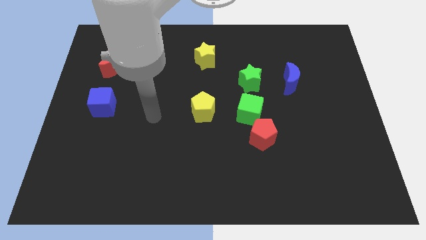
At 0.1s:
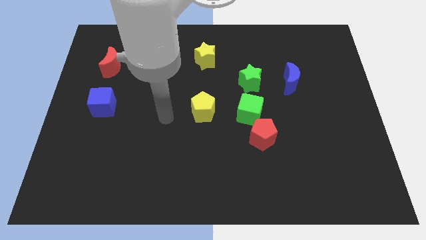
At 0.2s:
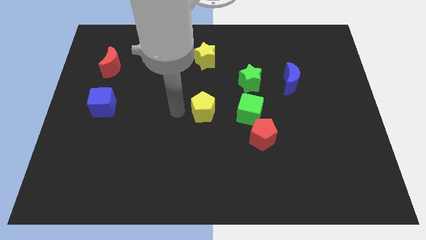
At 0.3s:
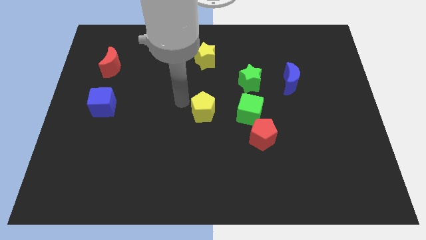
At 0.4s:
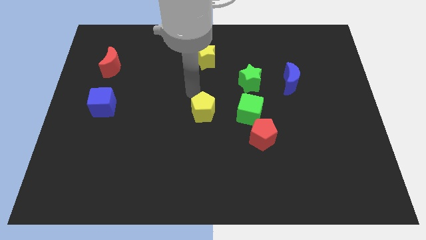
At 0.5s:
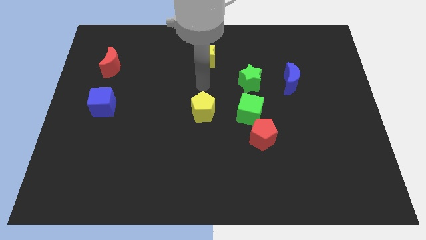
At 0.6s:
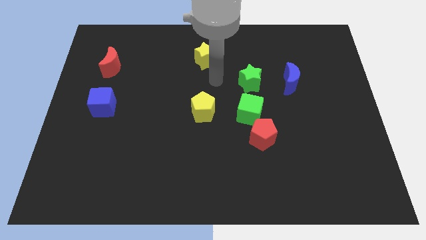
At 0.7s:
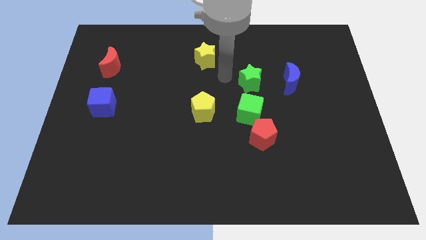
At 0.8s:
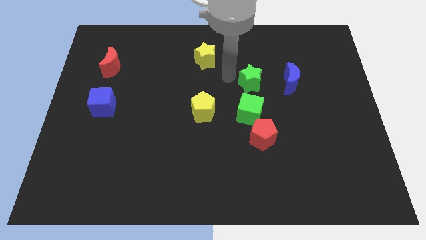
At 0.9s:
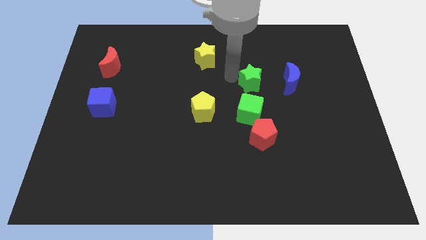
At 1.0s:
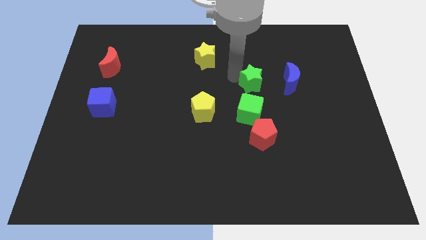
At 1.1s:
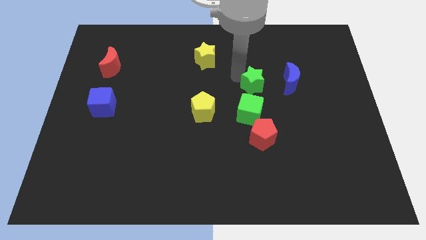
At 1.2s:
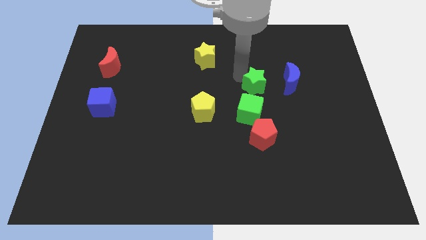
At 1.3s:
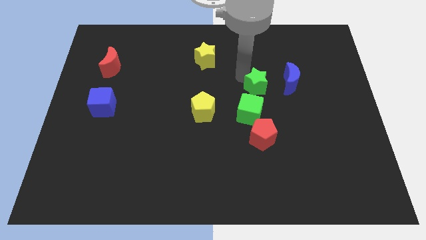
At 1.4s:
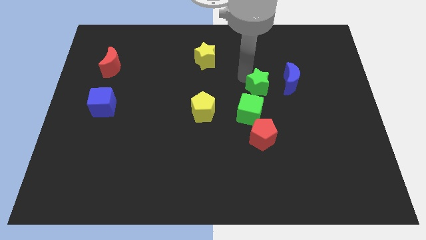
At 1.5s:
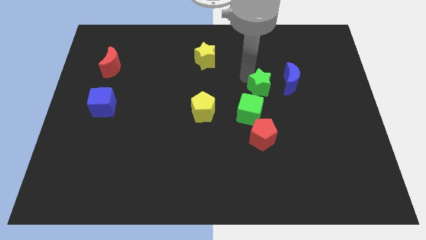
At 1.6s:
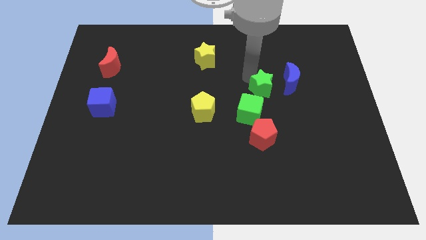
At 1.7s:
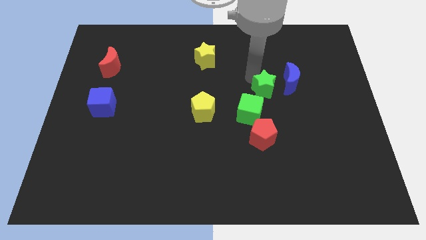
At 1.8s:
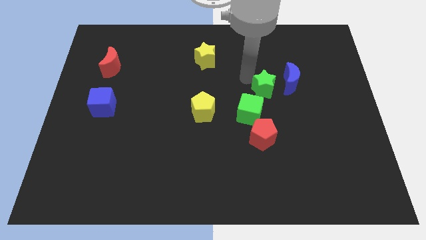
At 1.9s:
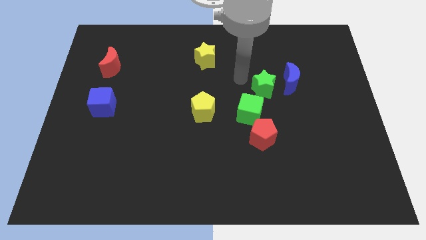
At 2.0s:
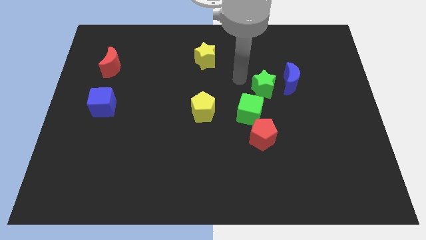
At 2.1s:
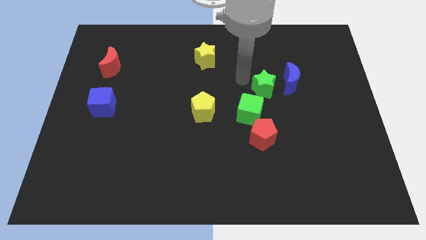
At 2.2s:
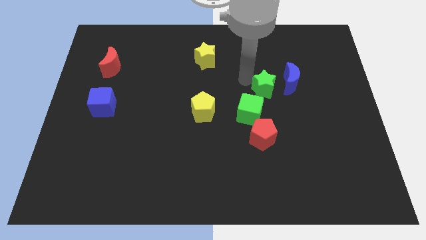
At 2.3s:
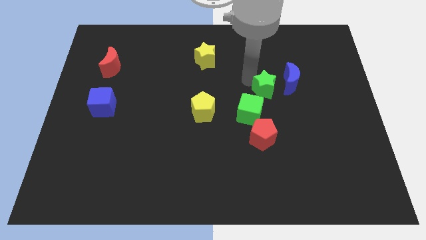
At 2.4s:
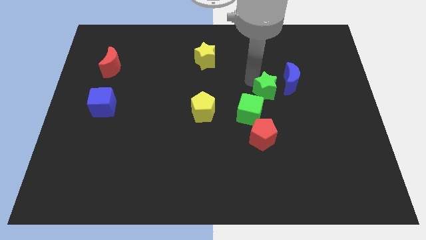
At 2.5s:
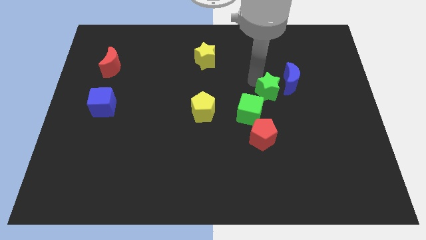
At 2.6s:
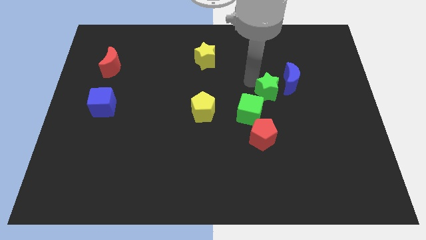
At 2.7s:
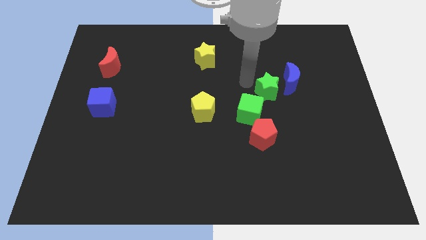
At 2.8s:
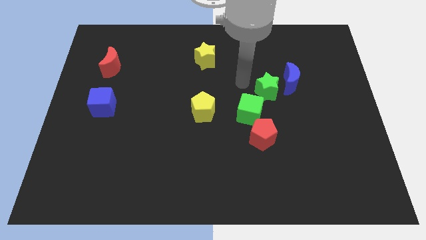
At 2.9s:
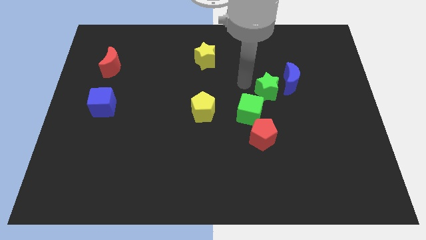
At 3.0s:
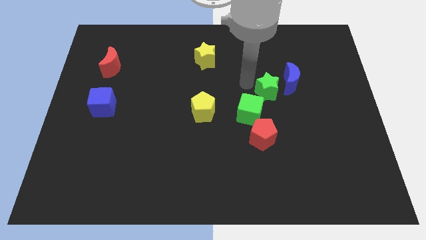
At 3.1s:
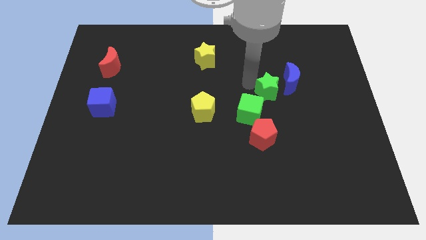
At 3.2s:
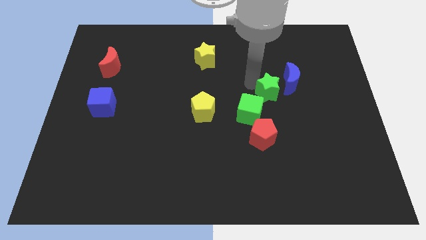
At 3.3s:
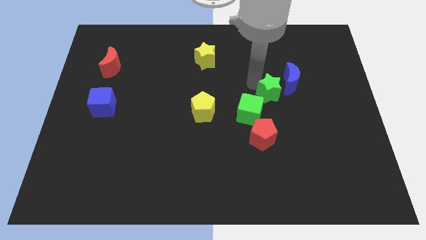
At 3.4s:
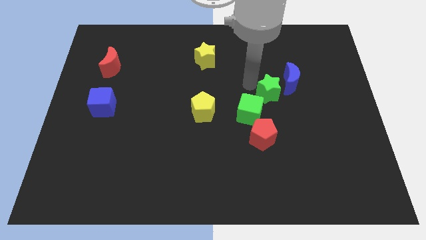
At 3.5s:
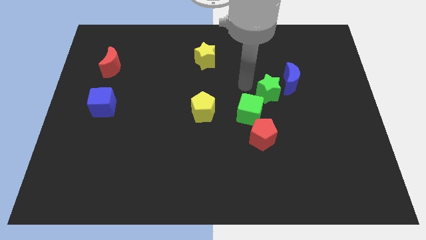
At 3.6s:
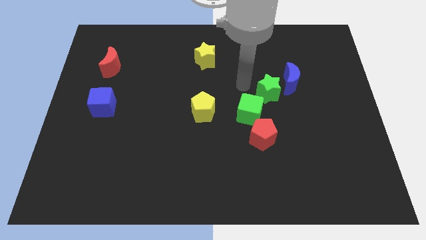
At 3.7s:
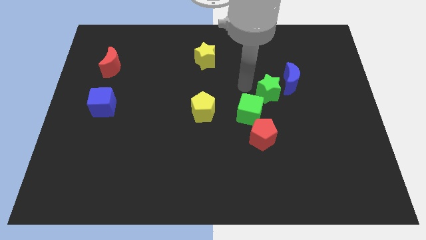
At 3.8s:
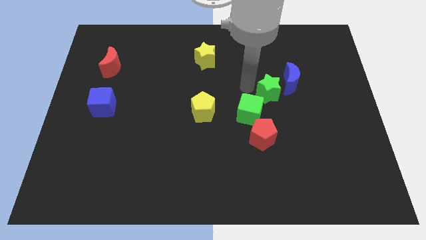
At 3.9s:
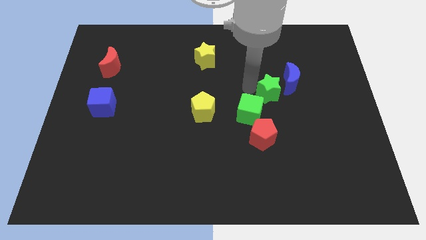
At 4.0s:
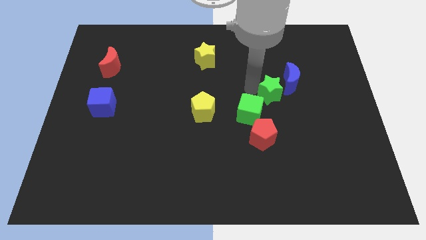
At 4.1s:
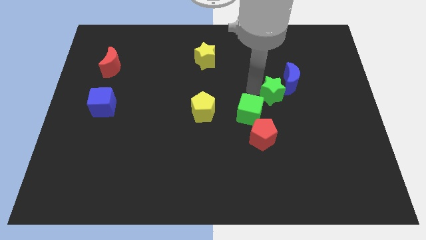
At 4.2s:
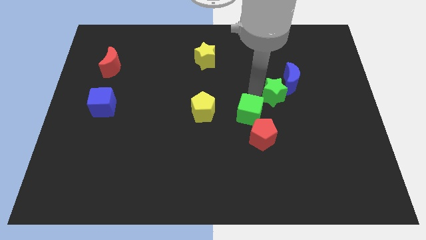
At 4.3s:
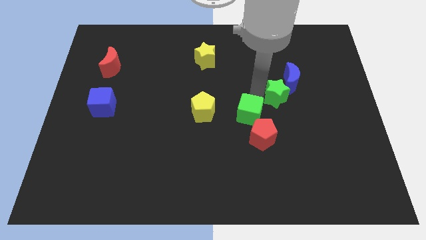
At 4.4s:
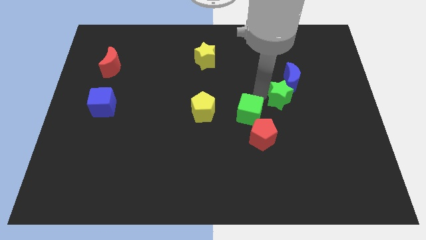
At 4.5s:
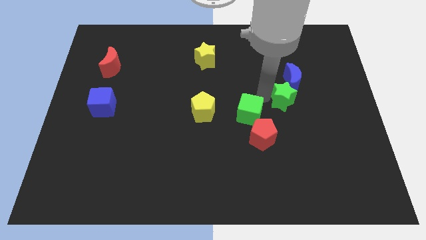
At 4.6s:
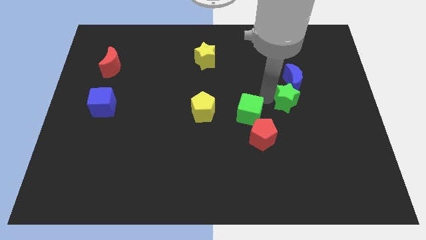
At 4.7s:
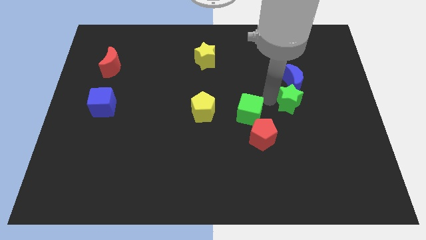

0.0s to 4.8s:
slide the green star to the right a little bit

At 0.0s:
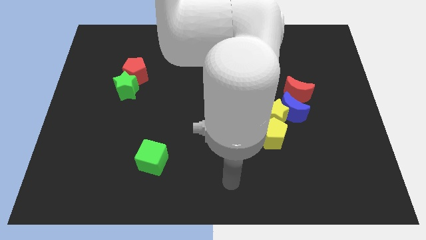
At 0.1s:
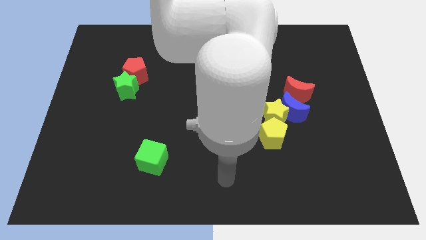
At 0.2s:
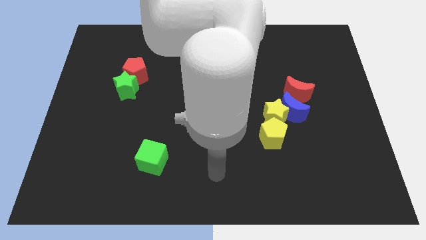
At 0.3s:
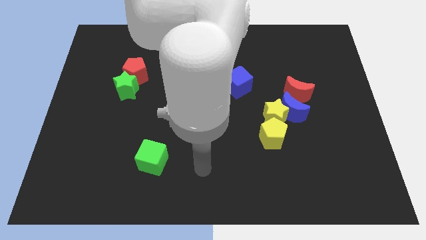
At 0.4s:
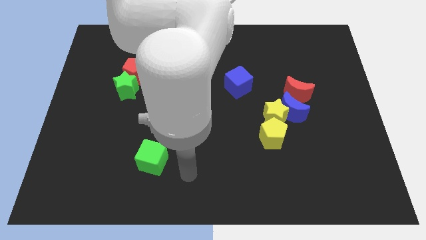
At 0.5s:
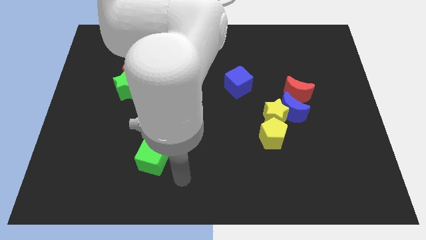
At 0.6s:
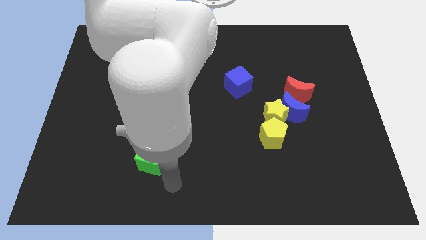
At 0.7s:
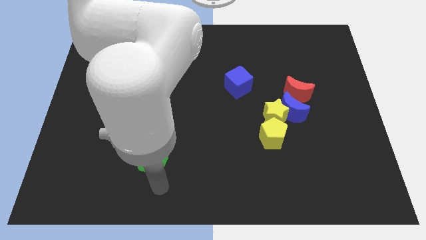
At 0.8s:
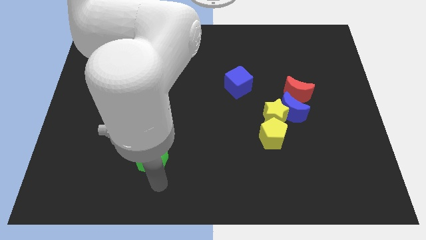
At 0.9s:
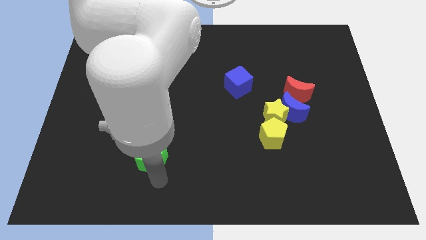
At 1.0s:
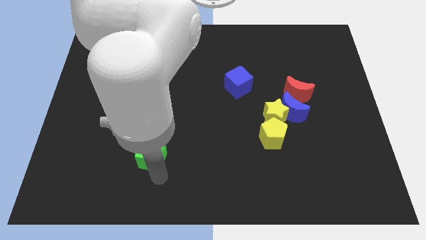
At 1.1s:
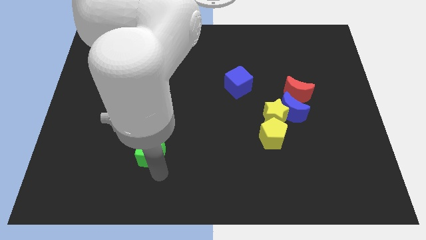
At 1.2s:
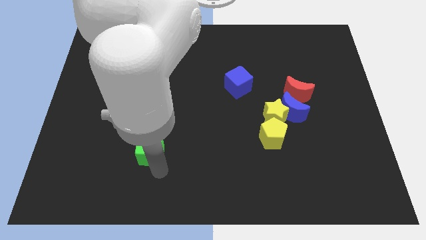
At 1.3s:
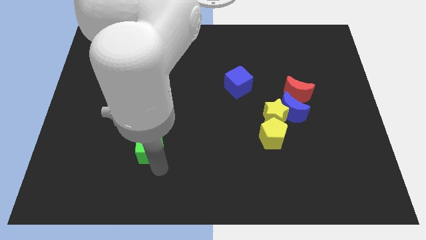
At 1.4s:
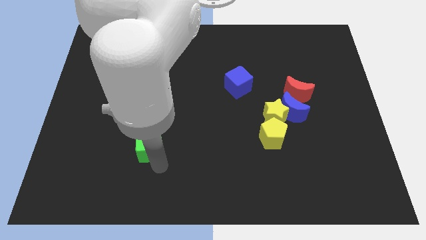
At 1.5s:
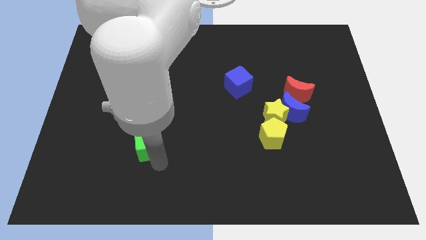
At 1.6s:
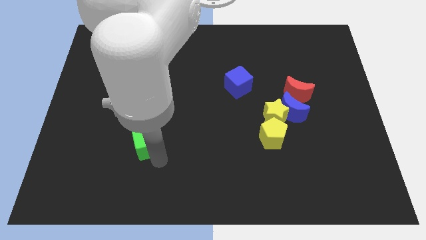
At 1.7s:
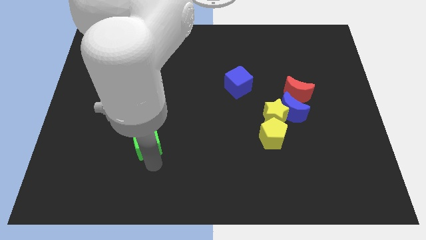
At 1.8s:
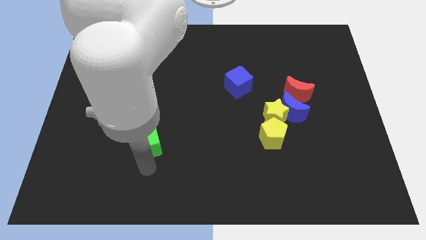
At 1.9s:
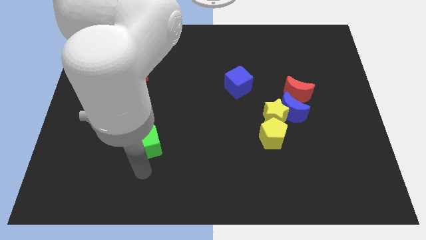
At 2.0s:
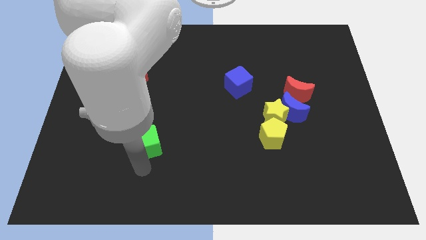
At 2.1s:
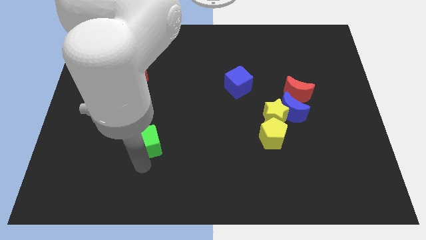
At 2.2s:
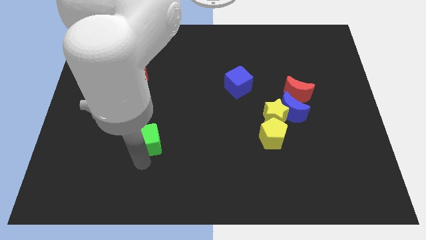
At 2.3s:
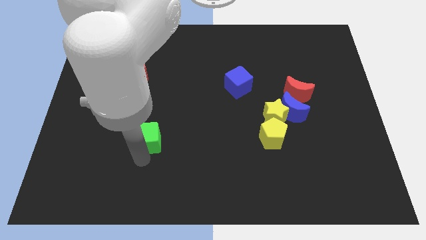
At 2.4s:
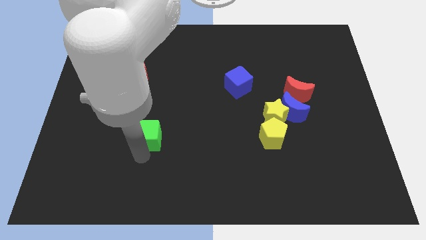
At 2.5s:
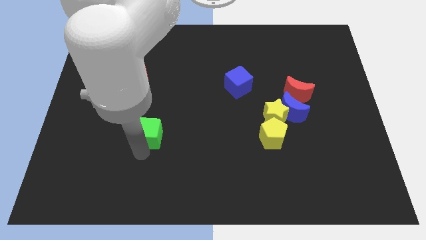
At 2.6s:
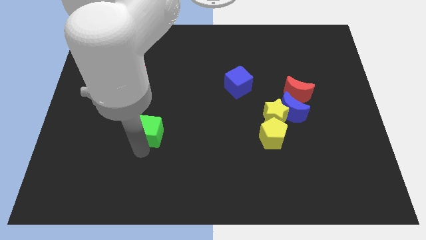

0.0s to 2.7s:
slightly slide the green cube up

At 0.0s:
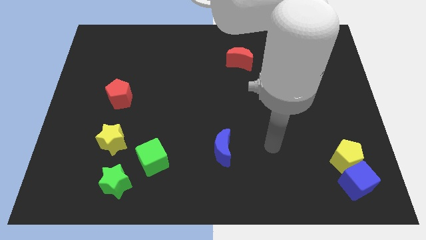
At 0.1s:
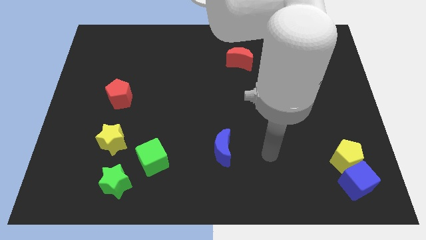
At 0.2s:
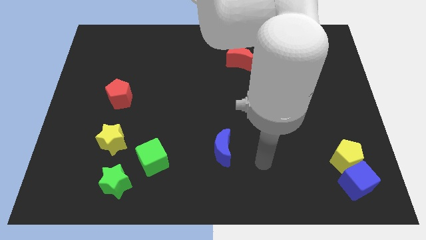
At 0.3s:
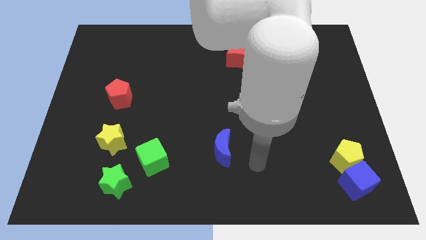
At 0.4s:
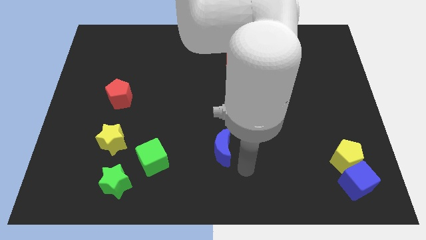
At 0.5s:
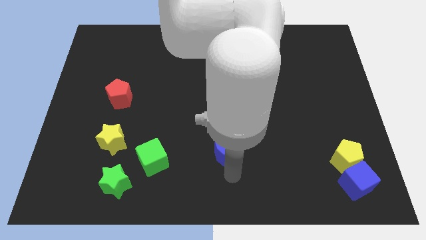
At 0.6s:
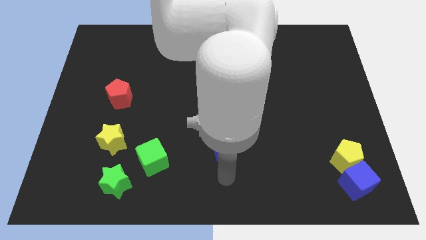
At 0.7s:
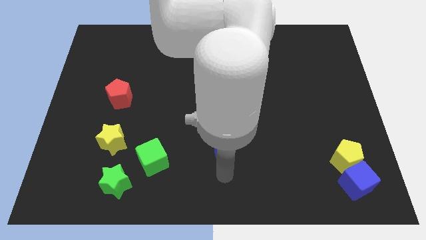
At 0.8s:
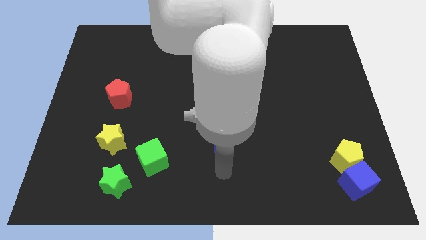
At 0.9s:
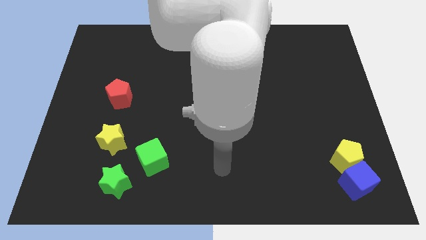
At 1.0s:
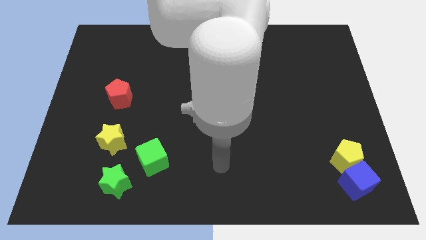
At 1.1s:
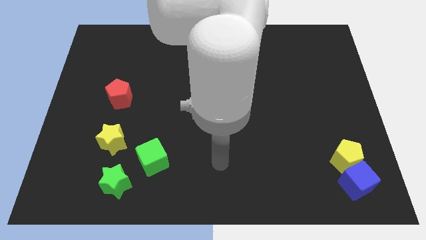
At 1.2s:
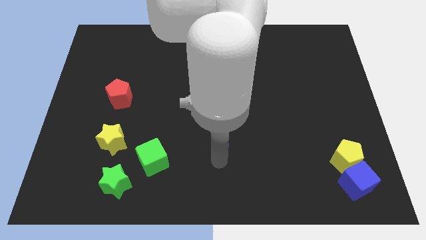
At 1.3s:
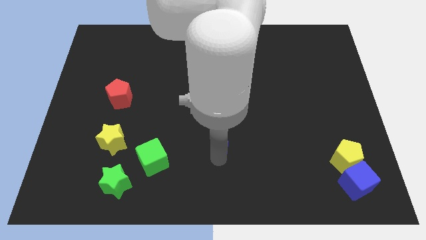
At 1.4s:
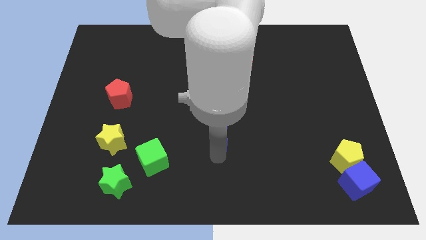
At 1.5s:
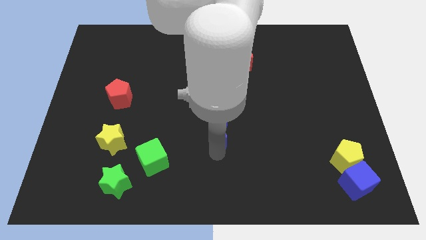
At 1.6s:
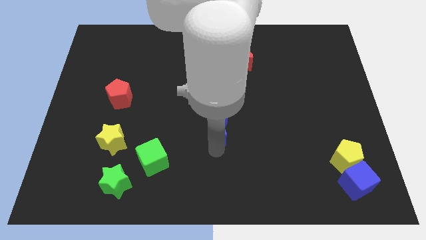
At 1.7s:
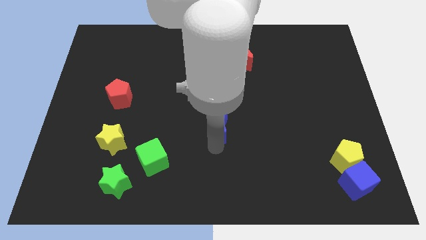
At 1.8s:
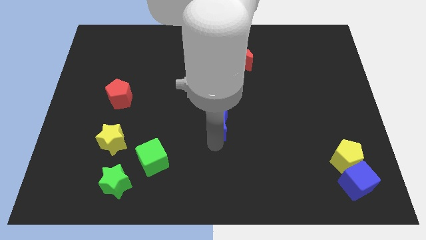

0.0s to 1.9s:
slightly move the blue moon upwards
